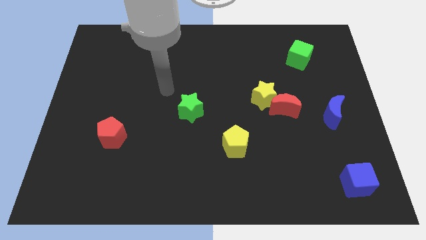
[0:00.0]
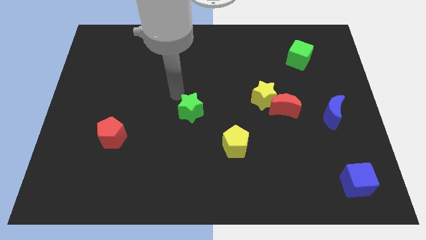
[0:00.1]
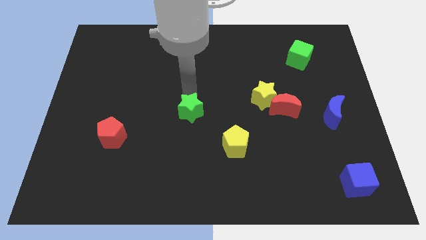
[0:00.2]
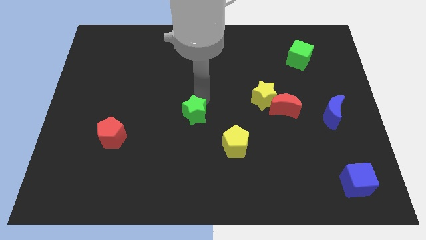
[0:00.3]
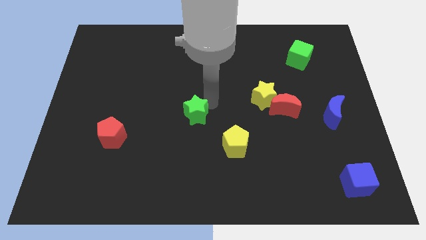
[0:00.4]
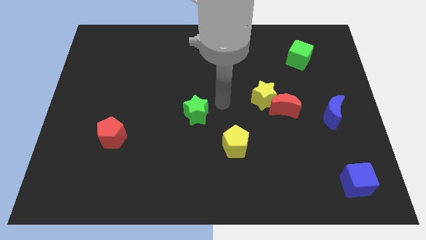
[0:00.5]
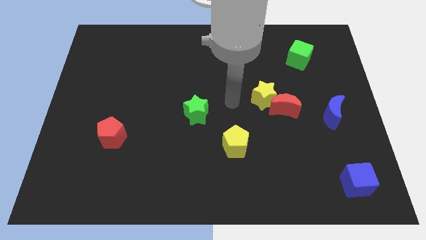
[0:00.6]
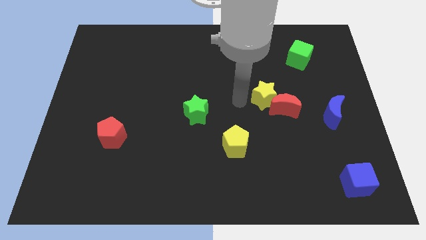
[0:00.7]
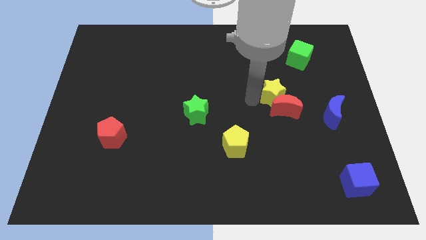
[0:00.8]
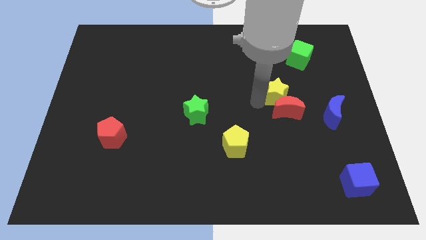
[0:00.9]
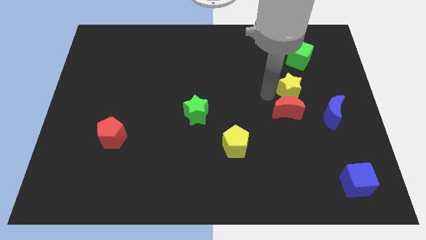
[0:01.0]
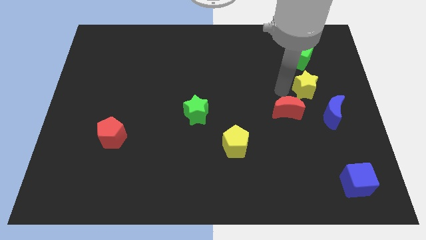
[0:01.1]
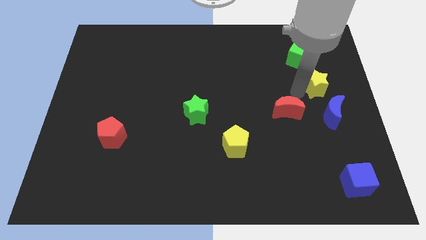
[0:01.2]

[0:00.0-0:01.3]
separate the red moon from the yellow star

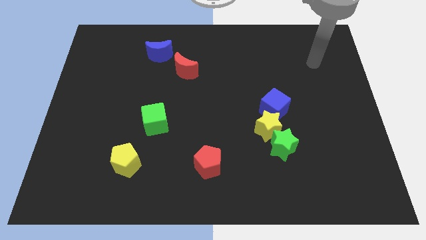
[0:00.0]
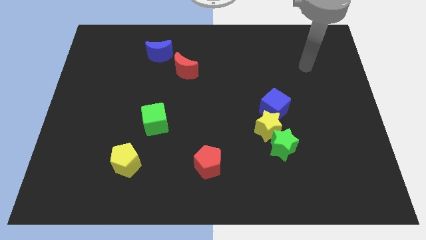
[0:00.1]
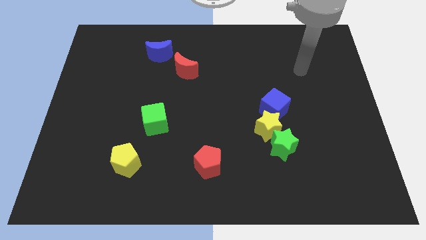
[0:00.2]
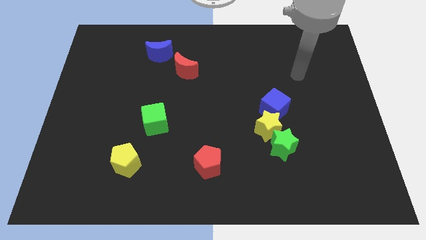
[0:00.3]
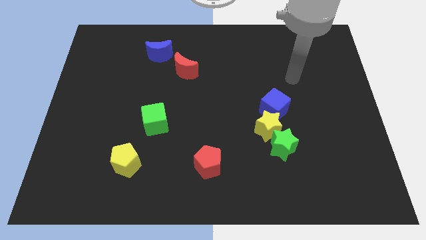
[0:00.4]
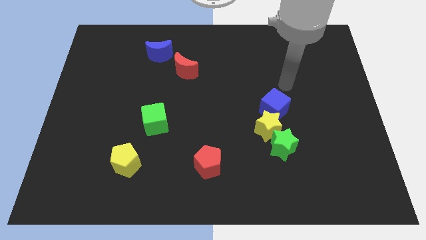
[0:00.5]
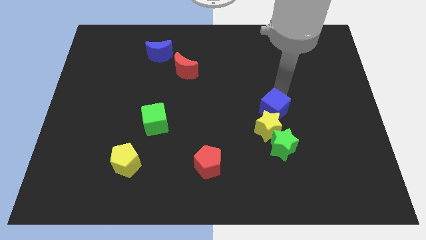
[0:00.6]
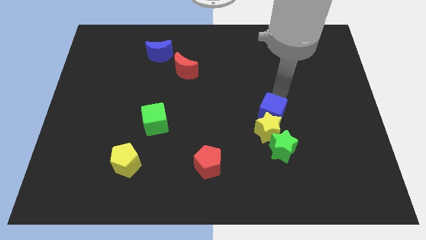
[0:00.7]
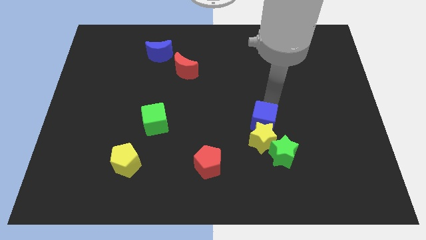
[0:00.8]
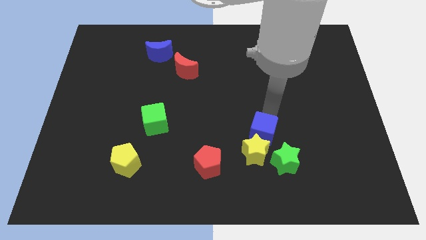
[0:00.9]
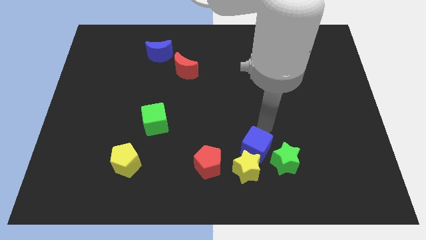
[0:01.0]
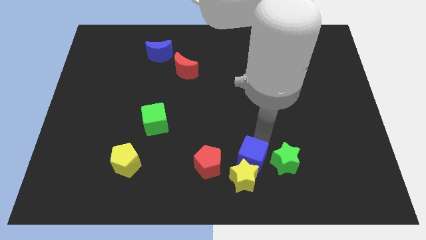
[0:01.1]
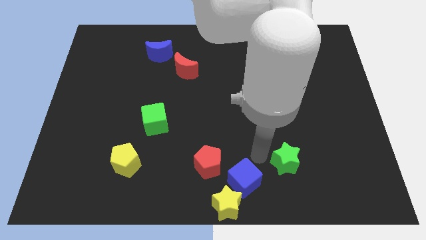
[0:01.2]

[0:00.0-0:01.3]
move the green star away from the yellow star

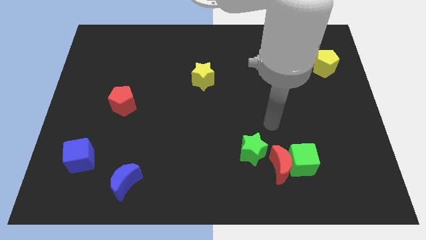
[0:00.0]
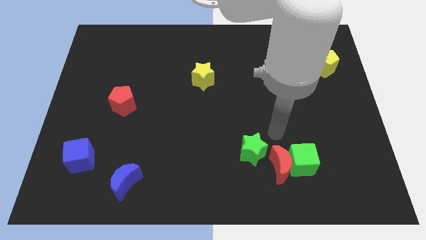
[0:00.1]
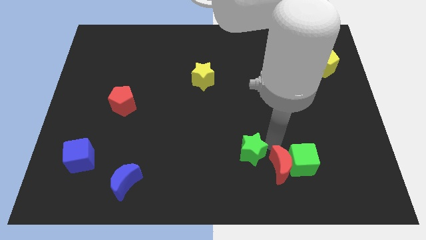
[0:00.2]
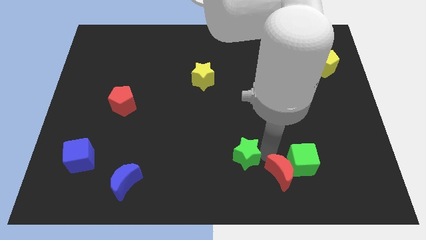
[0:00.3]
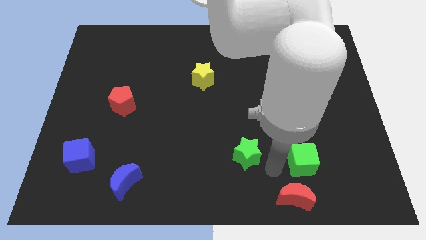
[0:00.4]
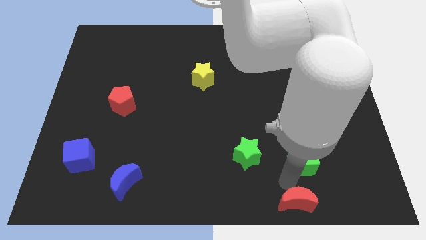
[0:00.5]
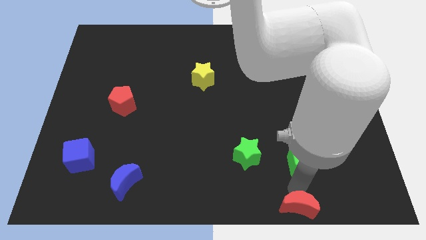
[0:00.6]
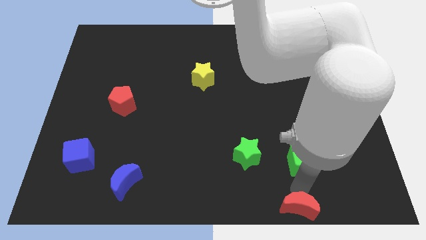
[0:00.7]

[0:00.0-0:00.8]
pull the green cube apart from the red moon

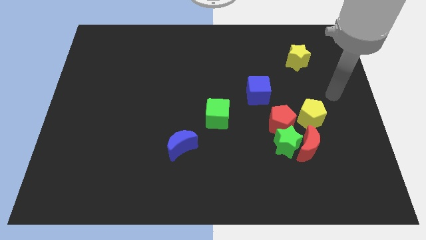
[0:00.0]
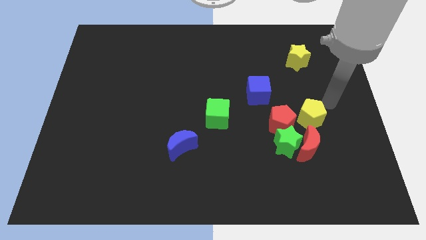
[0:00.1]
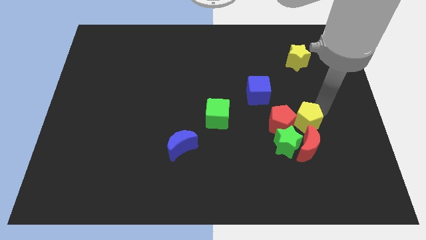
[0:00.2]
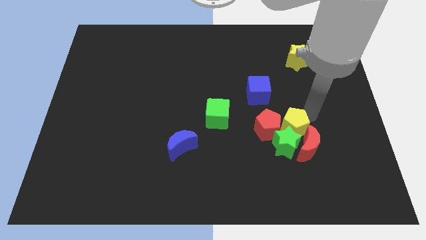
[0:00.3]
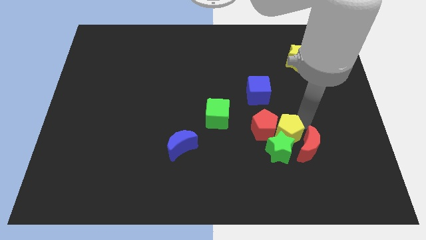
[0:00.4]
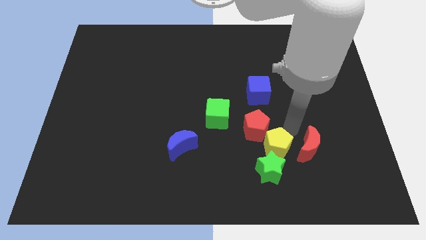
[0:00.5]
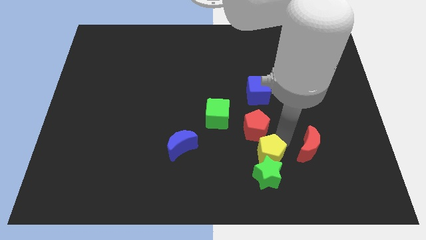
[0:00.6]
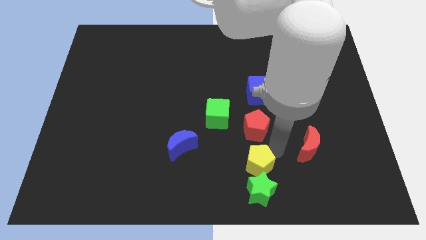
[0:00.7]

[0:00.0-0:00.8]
move the green star away from the clump

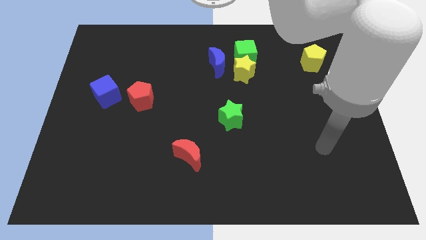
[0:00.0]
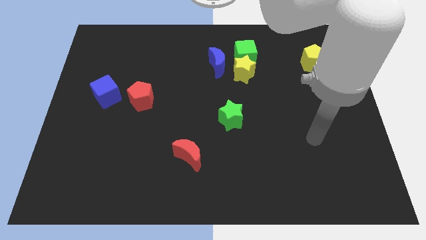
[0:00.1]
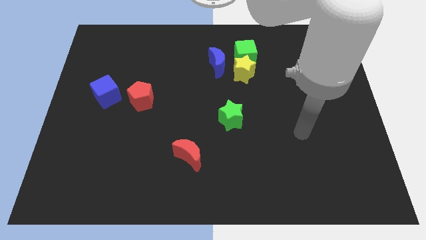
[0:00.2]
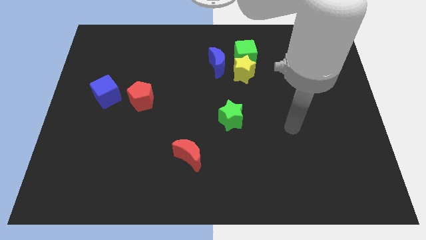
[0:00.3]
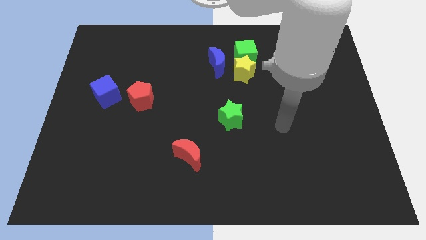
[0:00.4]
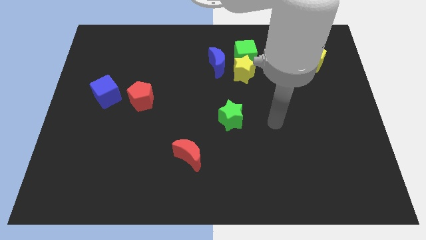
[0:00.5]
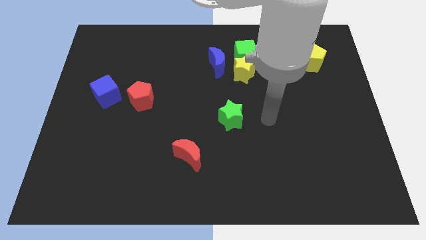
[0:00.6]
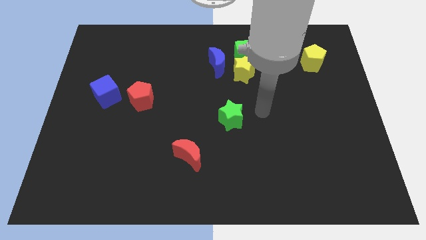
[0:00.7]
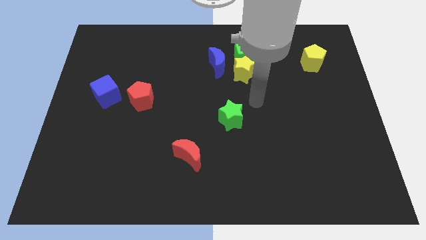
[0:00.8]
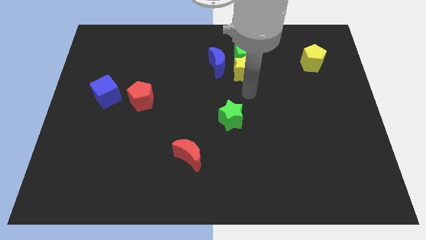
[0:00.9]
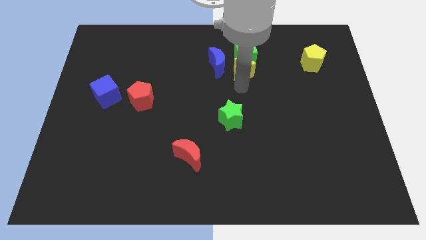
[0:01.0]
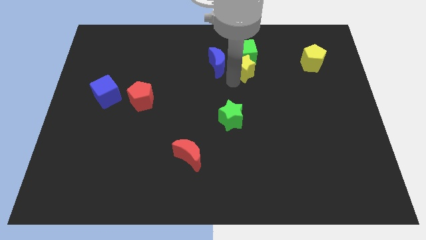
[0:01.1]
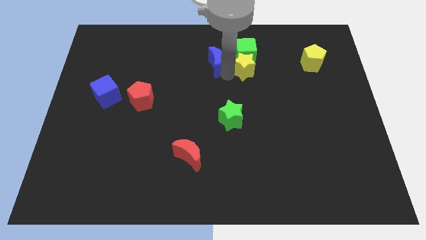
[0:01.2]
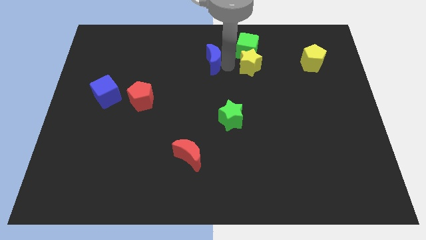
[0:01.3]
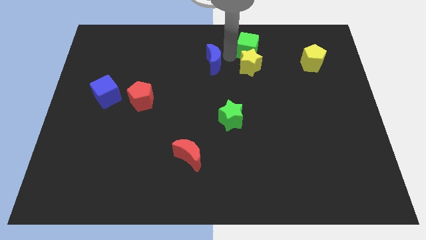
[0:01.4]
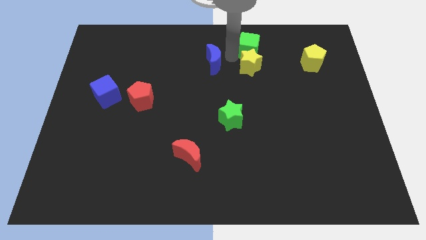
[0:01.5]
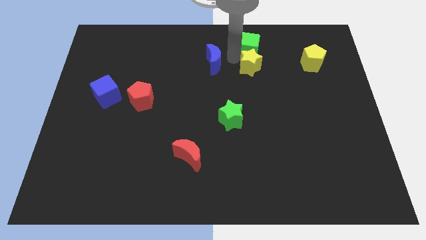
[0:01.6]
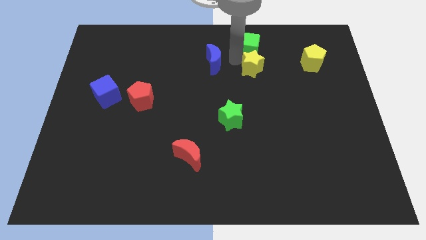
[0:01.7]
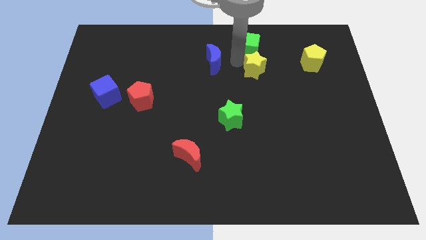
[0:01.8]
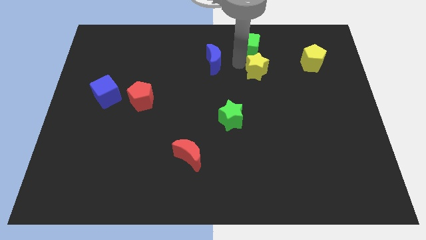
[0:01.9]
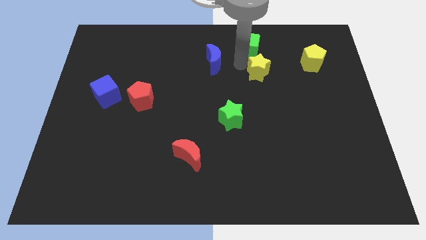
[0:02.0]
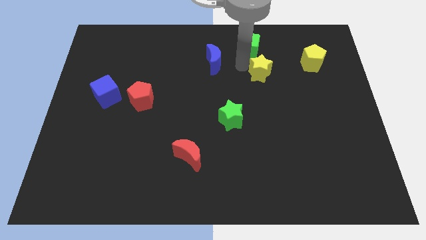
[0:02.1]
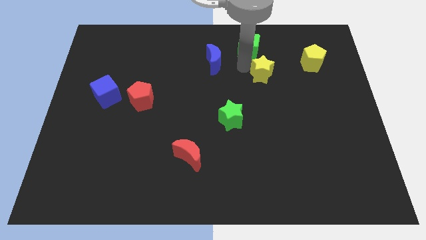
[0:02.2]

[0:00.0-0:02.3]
move the yellow star away from the green cube and blue moon

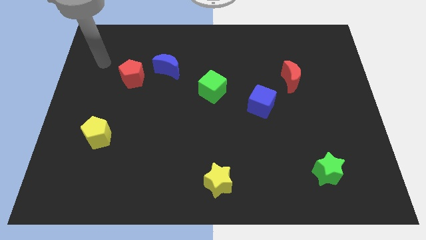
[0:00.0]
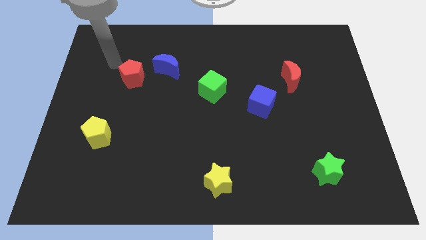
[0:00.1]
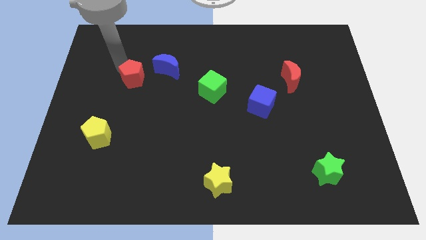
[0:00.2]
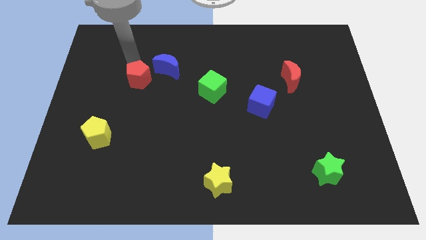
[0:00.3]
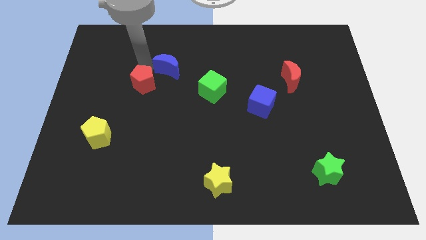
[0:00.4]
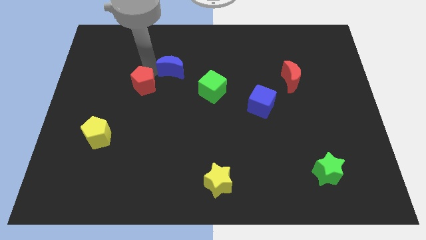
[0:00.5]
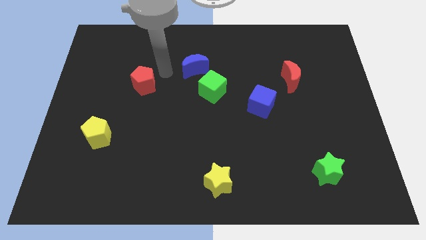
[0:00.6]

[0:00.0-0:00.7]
separate the red pentagon from the blue moon

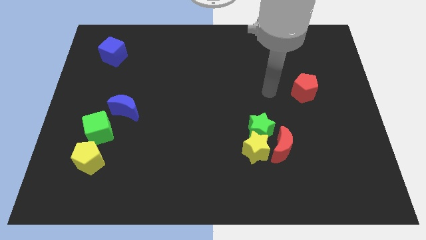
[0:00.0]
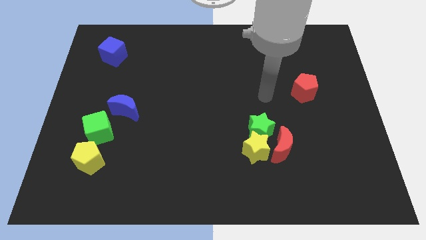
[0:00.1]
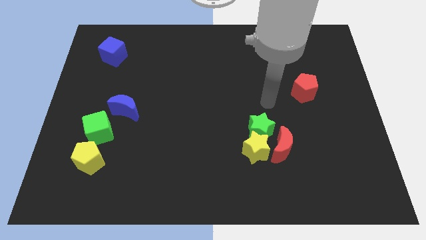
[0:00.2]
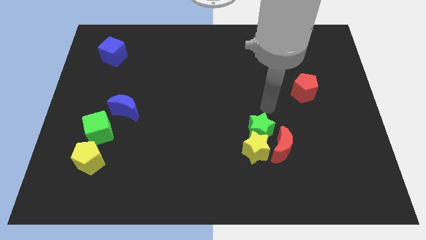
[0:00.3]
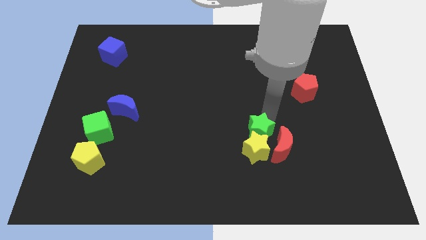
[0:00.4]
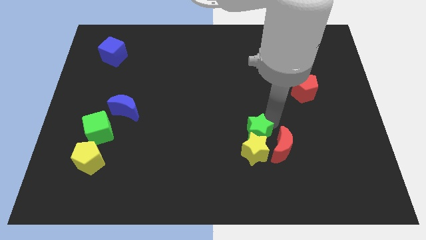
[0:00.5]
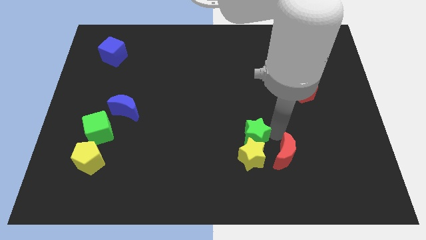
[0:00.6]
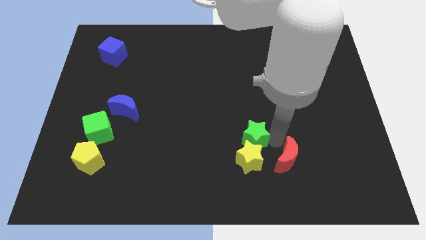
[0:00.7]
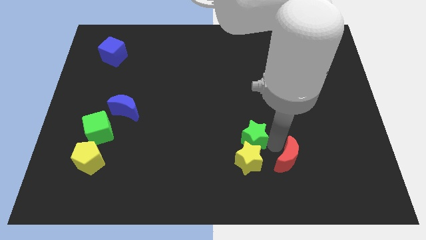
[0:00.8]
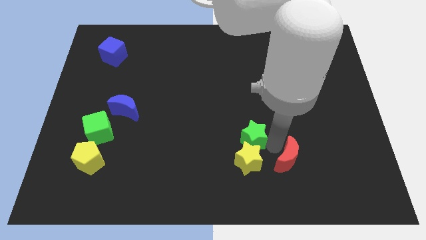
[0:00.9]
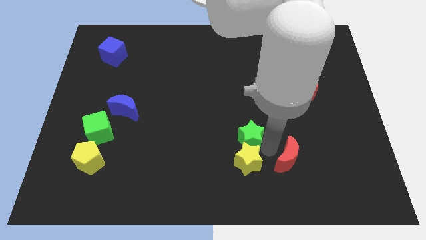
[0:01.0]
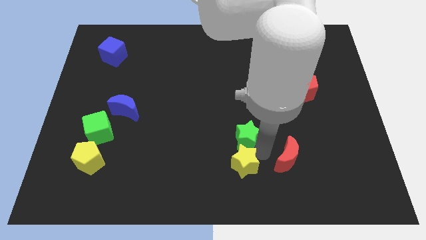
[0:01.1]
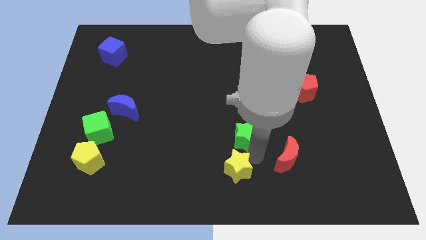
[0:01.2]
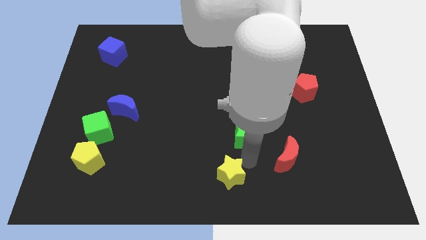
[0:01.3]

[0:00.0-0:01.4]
pull the yellow star apart from the green star and red moon

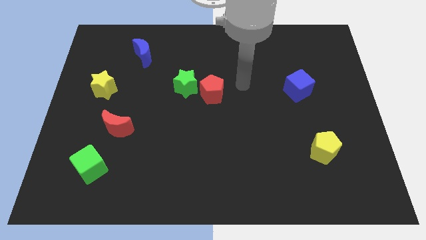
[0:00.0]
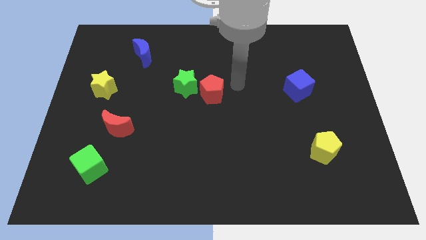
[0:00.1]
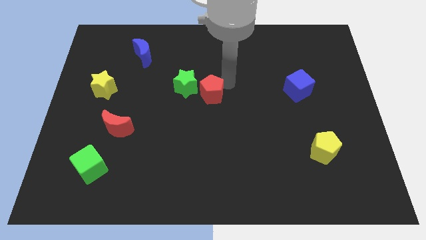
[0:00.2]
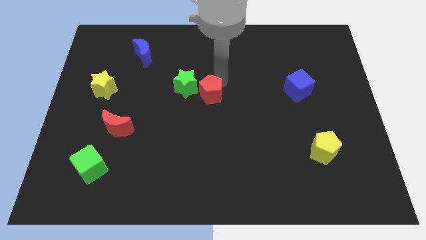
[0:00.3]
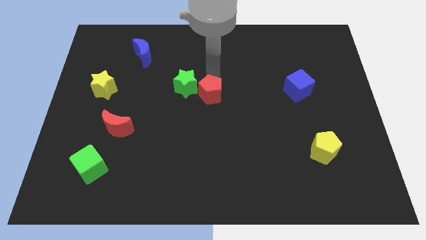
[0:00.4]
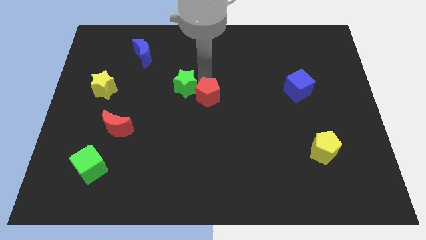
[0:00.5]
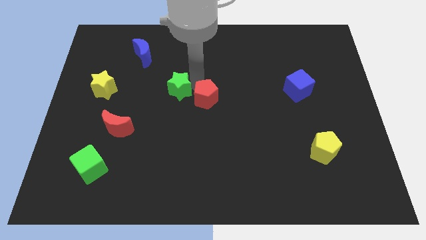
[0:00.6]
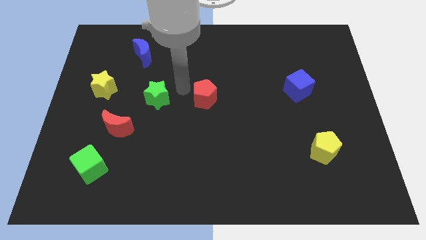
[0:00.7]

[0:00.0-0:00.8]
separate the red pentagon from the green star
